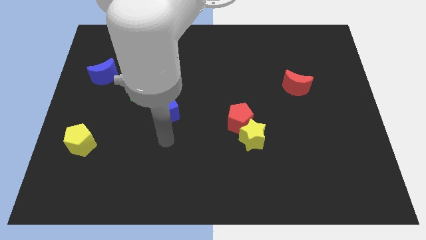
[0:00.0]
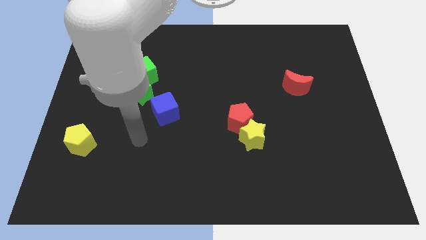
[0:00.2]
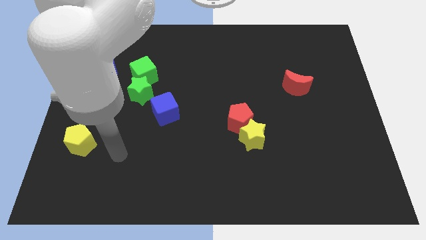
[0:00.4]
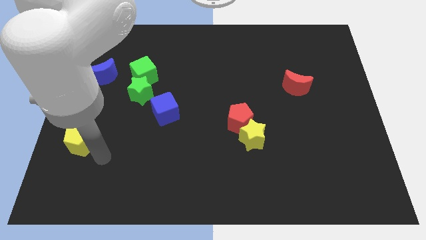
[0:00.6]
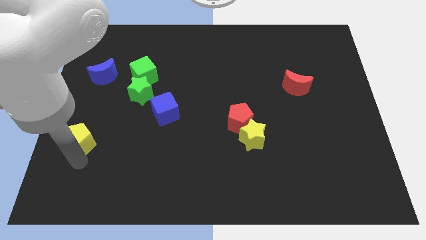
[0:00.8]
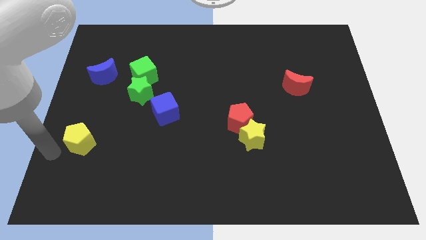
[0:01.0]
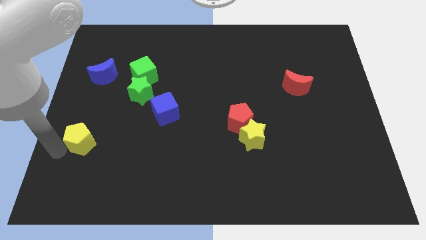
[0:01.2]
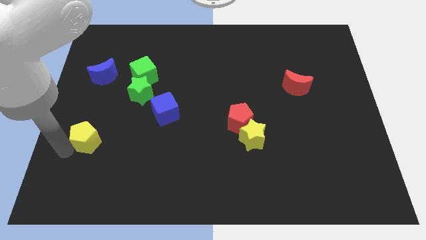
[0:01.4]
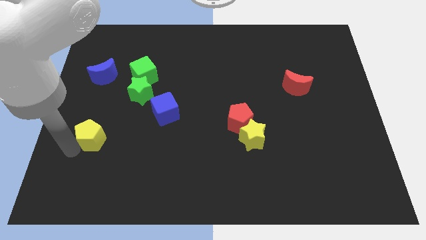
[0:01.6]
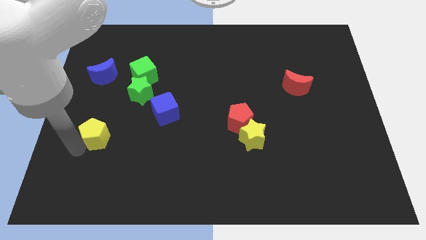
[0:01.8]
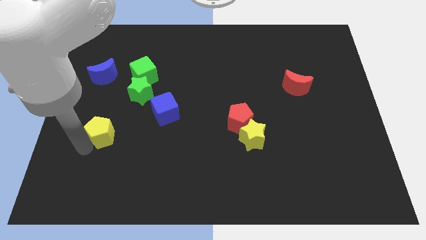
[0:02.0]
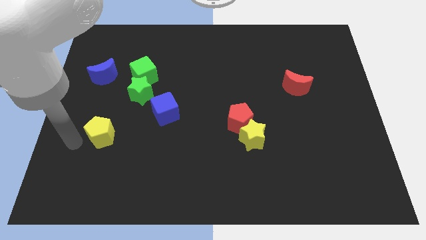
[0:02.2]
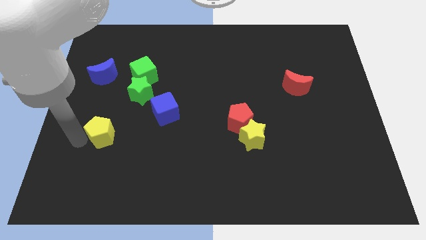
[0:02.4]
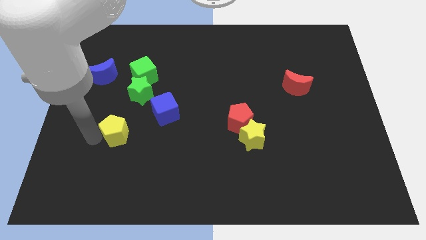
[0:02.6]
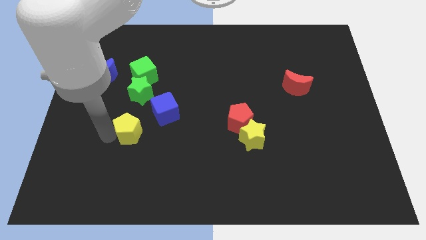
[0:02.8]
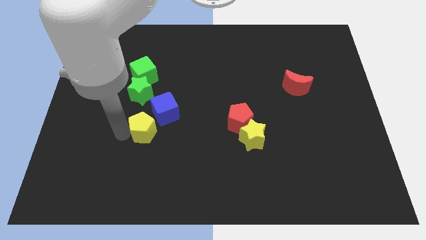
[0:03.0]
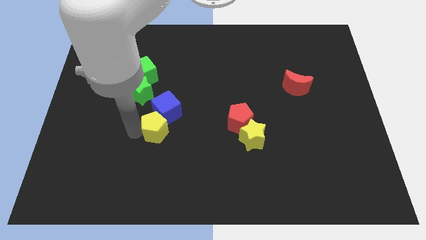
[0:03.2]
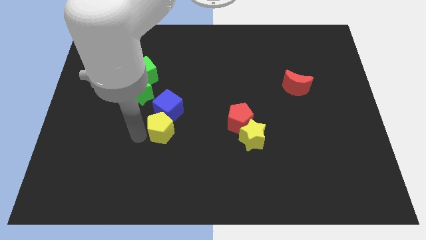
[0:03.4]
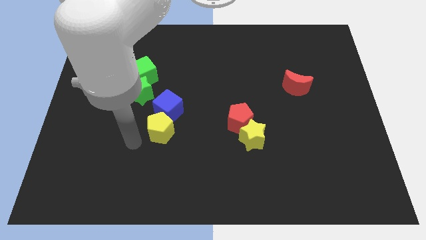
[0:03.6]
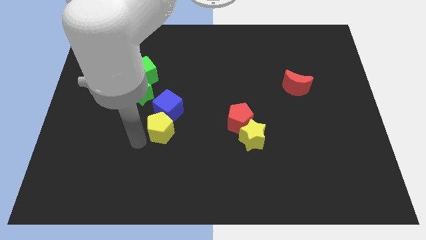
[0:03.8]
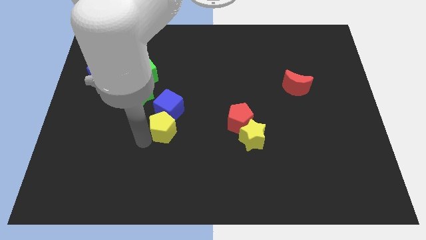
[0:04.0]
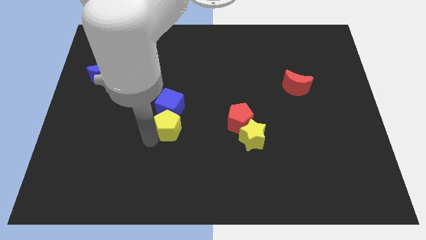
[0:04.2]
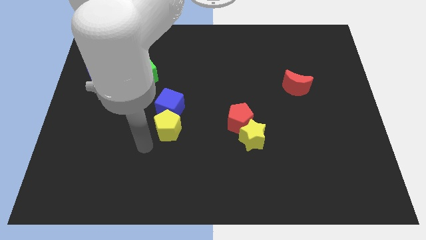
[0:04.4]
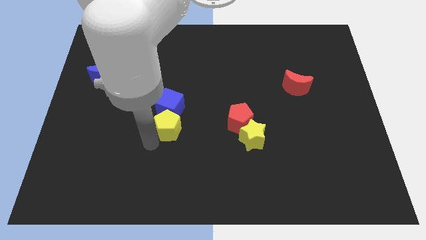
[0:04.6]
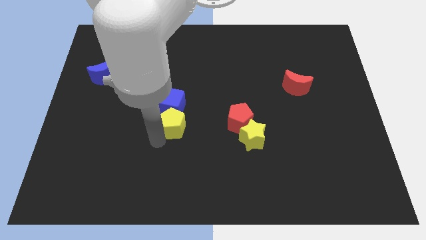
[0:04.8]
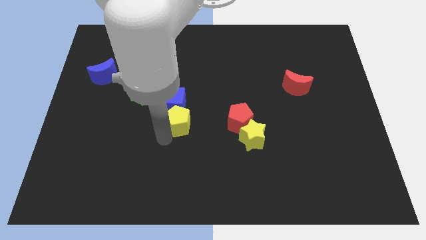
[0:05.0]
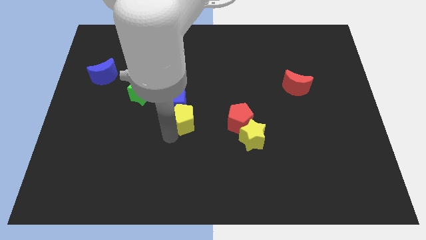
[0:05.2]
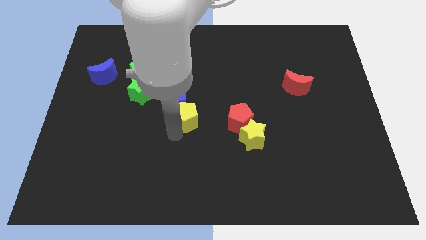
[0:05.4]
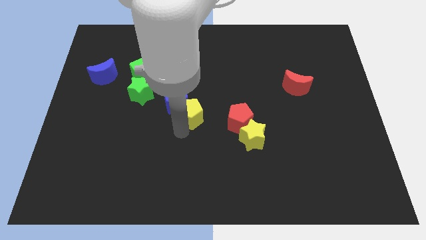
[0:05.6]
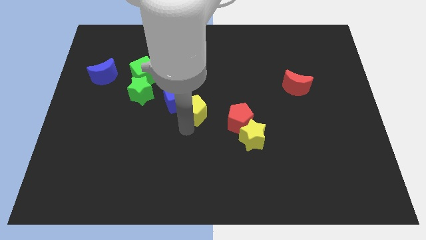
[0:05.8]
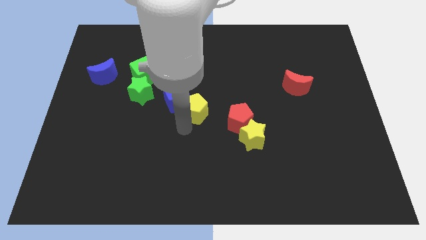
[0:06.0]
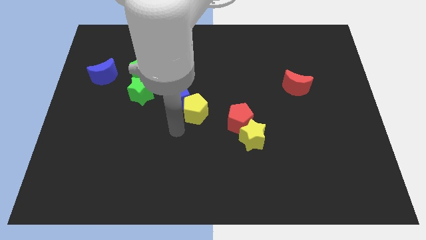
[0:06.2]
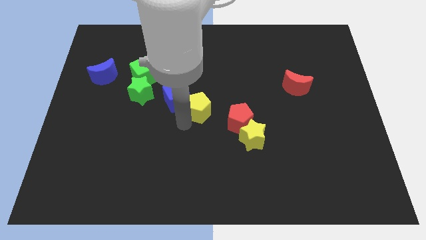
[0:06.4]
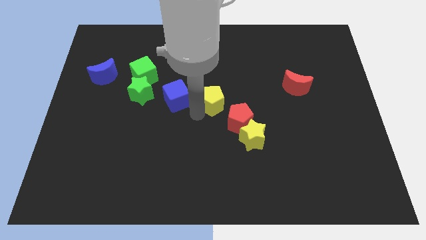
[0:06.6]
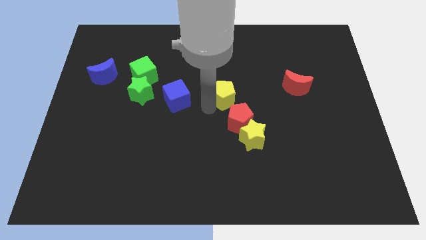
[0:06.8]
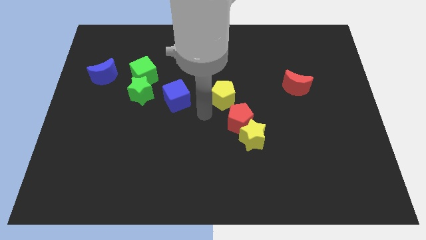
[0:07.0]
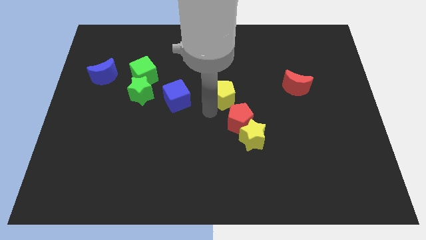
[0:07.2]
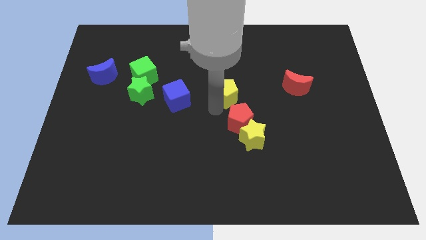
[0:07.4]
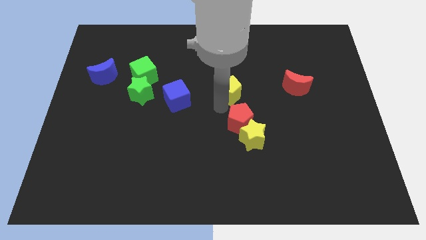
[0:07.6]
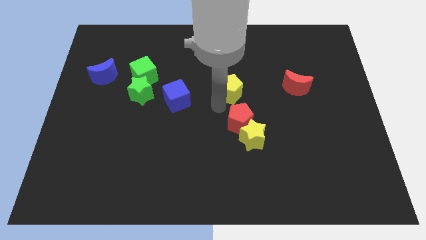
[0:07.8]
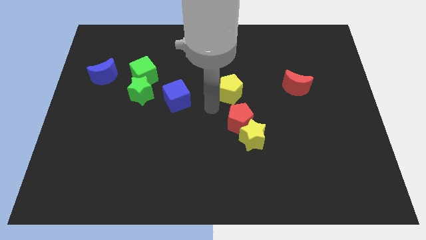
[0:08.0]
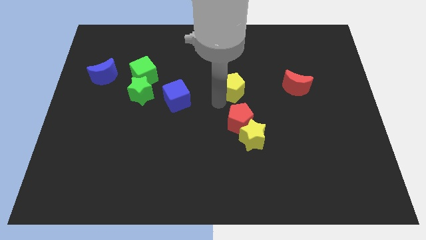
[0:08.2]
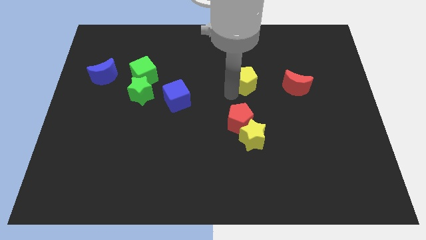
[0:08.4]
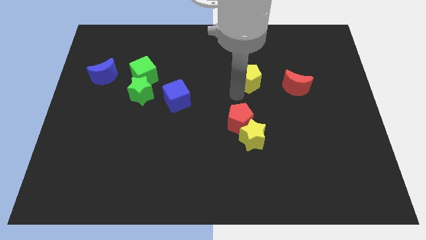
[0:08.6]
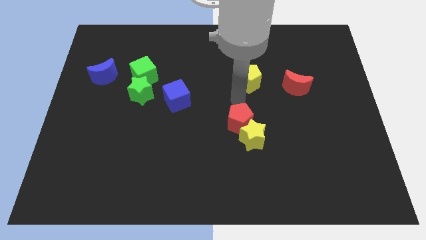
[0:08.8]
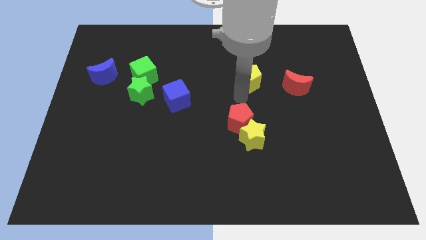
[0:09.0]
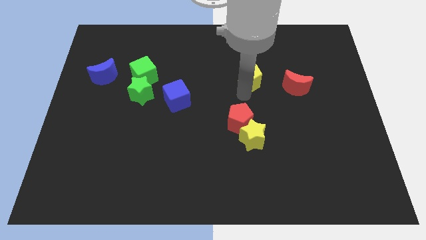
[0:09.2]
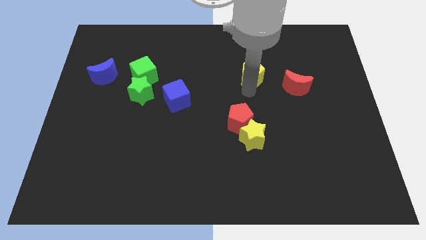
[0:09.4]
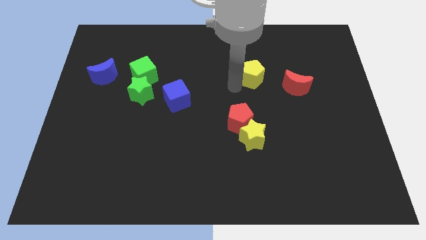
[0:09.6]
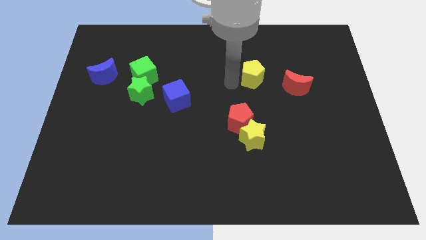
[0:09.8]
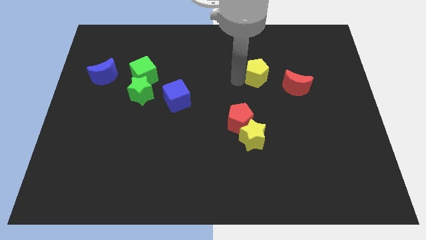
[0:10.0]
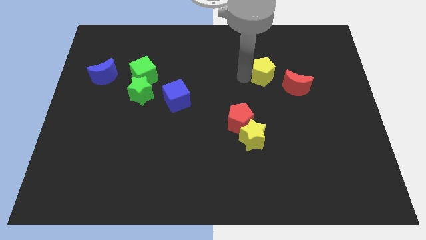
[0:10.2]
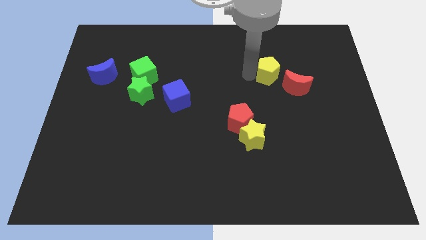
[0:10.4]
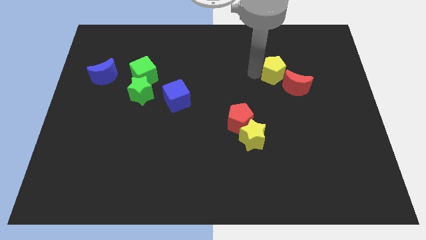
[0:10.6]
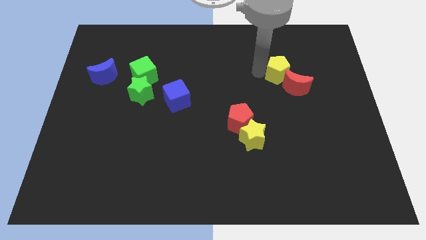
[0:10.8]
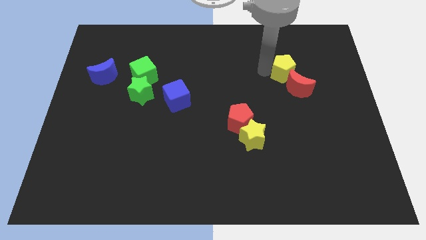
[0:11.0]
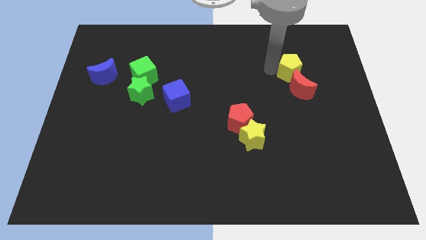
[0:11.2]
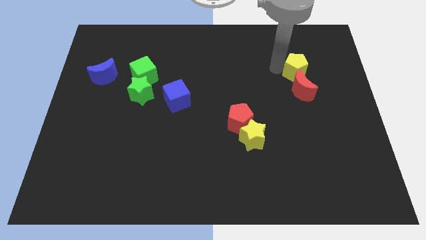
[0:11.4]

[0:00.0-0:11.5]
slide the yellow pentagon to the top right of the red moon

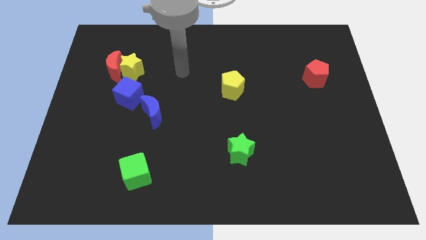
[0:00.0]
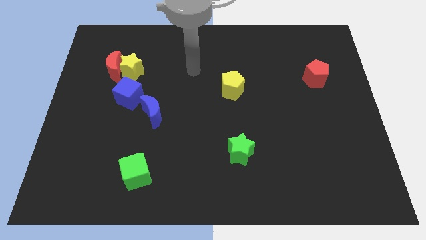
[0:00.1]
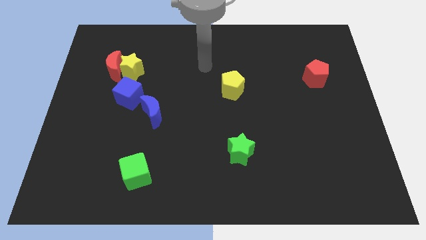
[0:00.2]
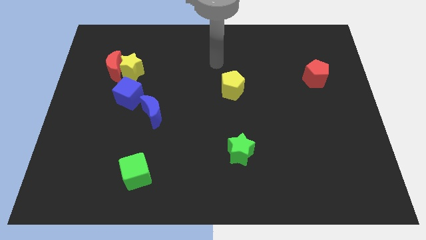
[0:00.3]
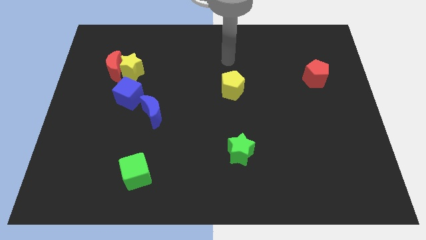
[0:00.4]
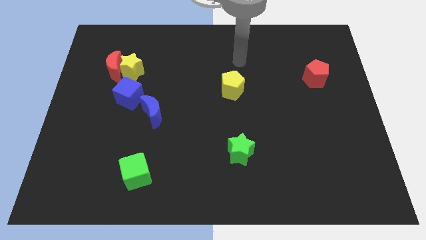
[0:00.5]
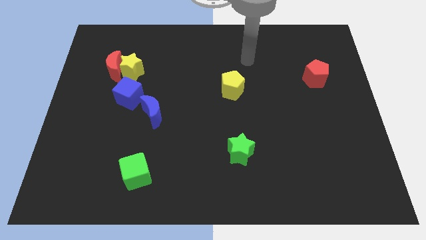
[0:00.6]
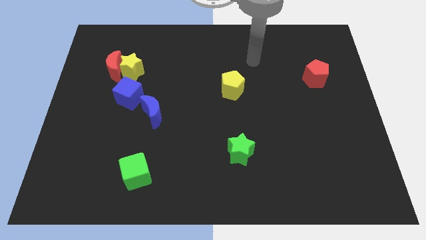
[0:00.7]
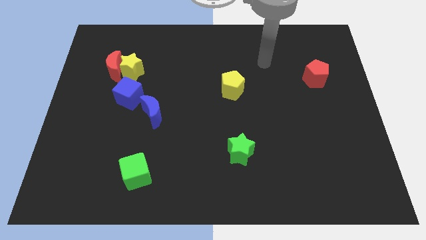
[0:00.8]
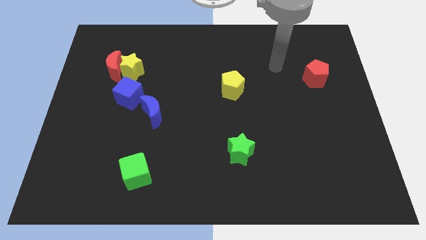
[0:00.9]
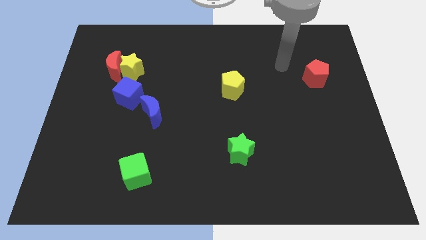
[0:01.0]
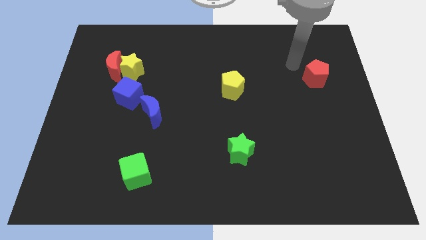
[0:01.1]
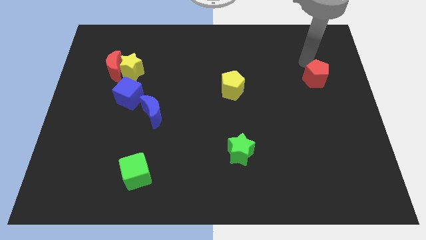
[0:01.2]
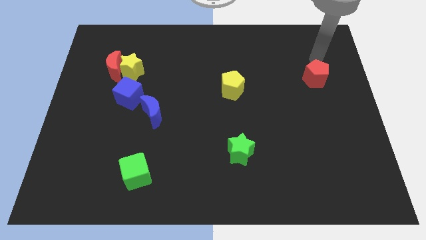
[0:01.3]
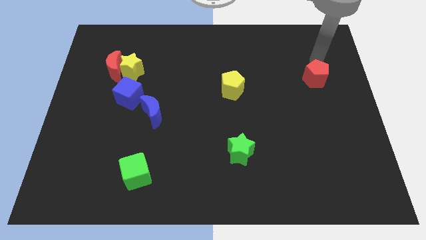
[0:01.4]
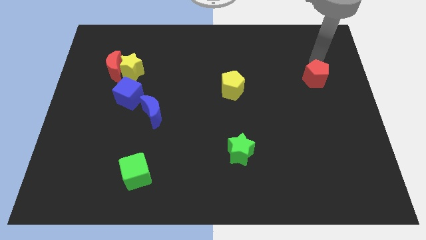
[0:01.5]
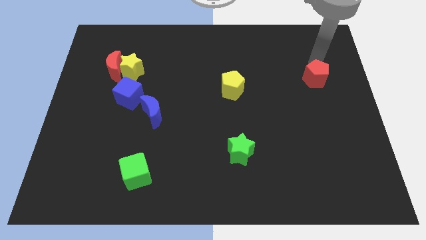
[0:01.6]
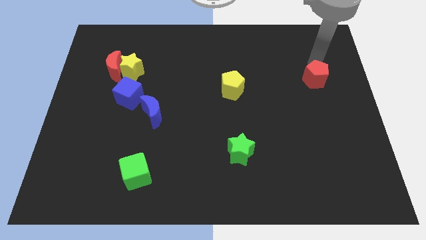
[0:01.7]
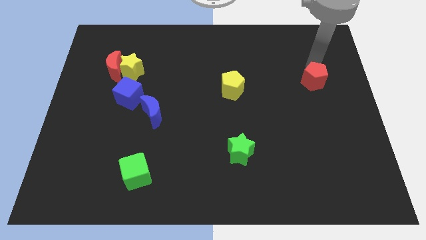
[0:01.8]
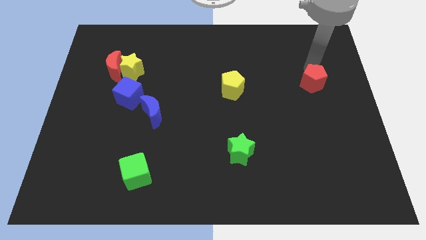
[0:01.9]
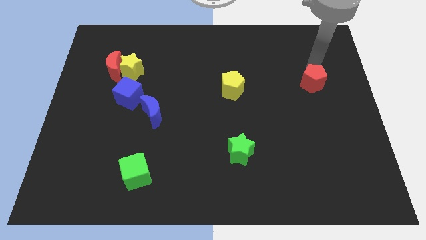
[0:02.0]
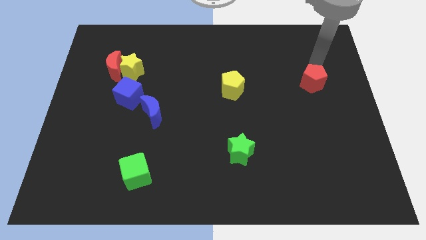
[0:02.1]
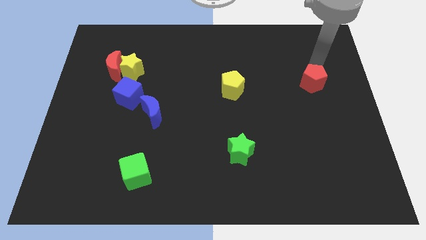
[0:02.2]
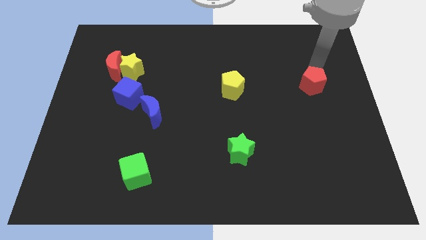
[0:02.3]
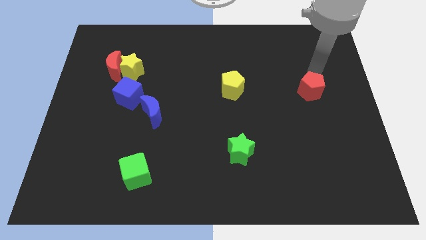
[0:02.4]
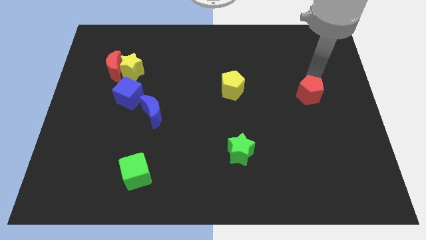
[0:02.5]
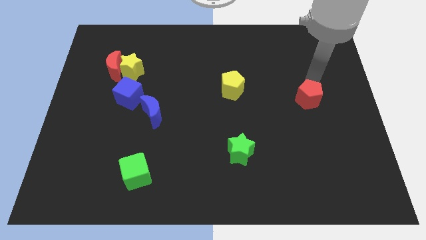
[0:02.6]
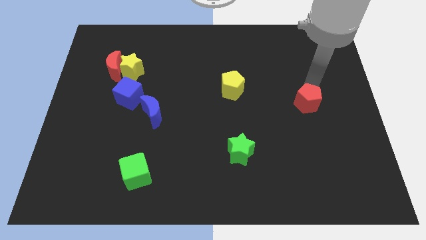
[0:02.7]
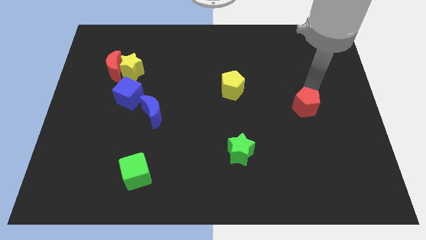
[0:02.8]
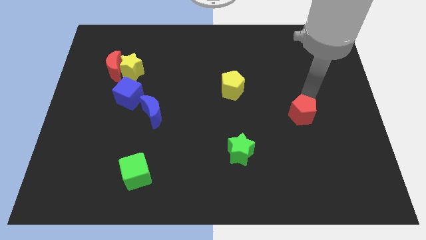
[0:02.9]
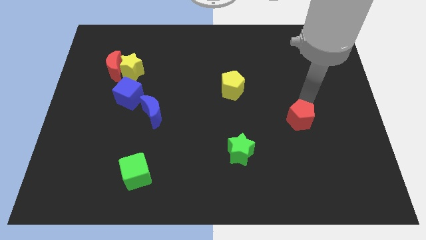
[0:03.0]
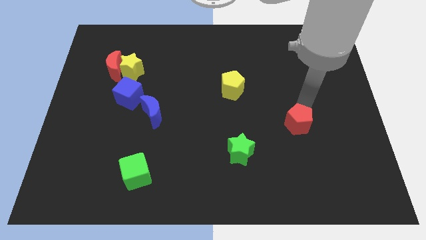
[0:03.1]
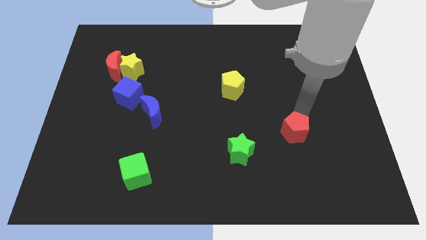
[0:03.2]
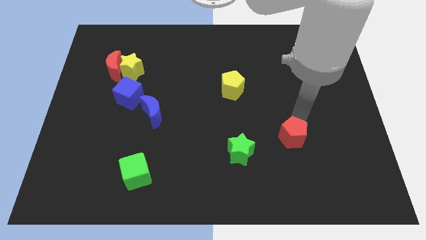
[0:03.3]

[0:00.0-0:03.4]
push the red pentagon to the right of the green star
